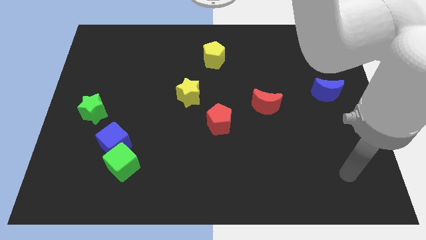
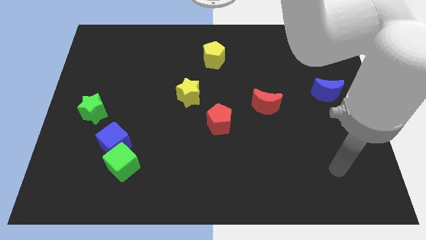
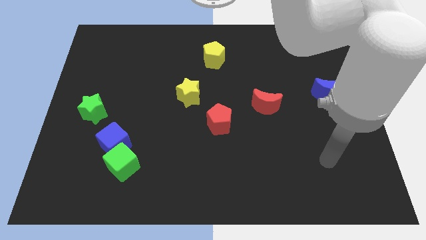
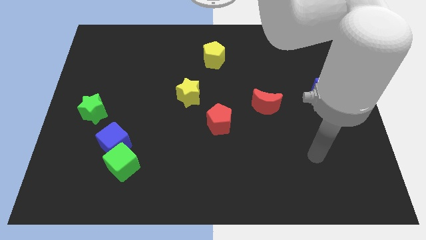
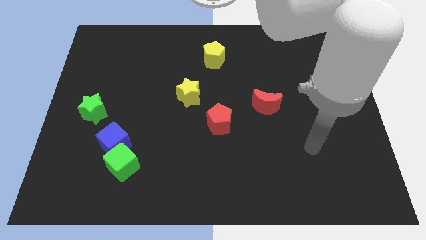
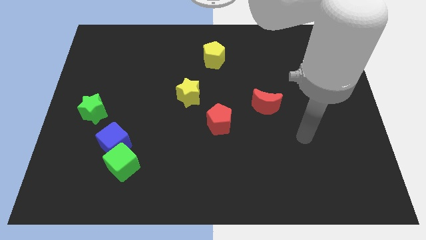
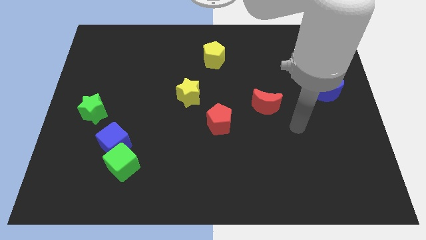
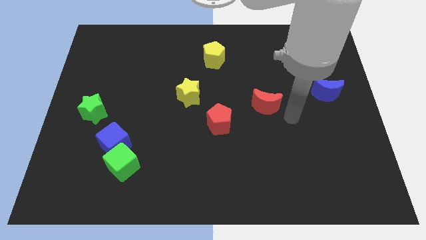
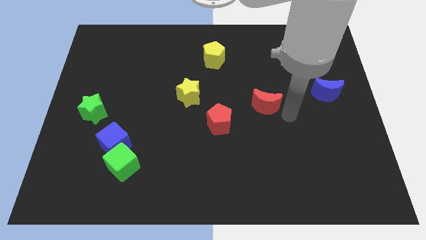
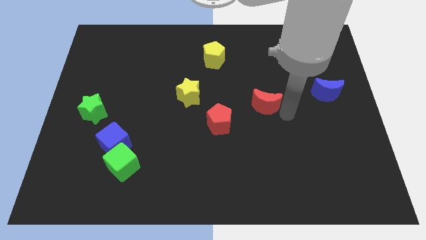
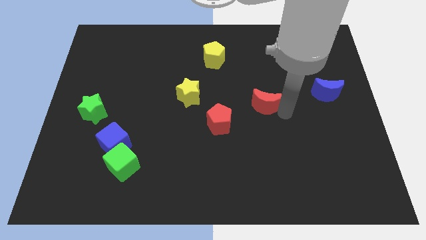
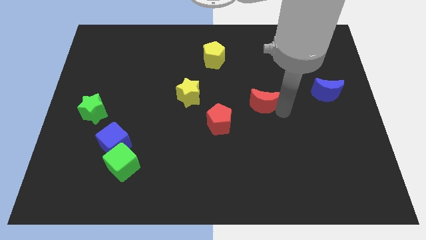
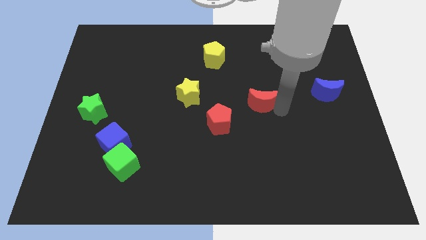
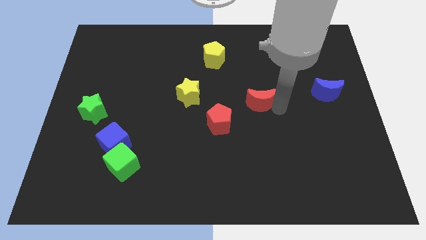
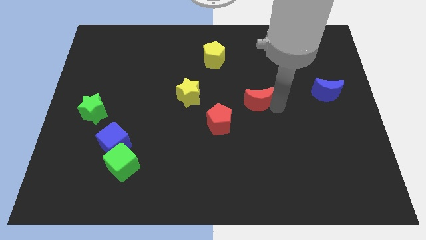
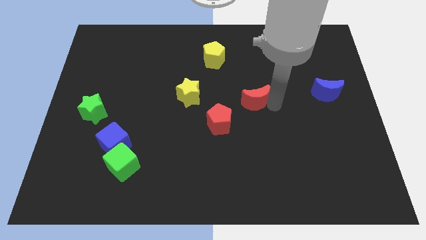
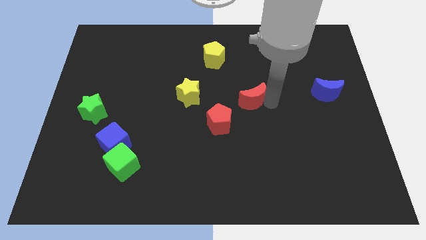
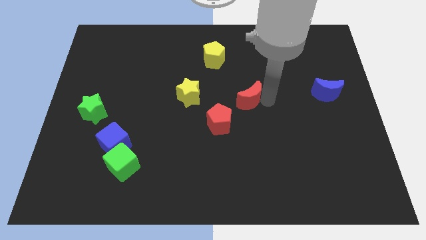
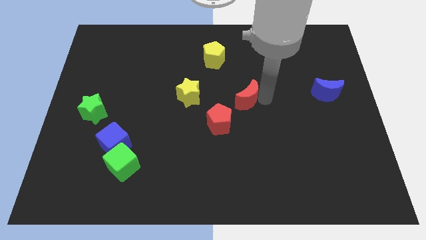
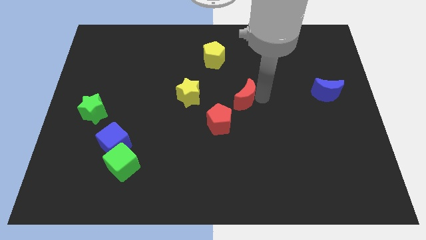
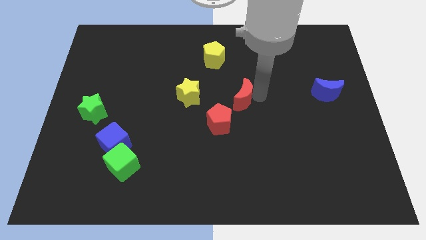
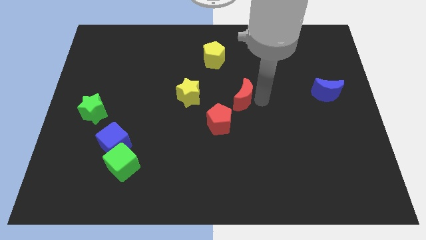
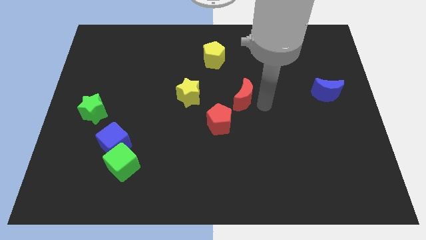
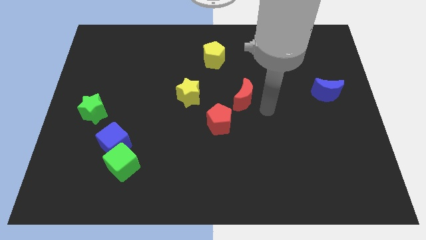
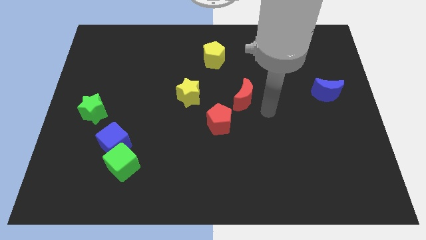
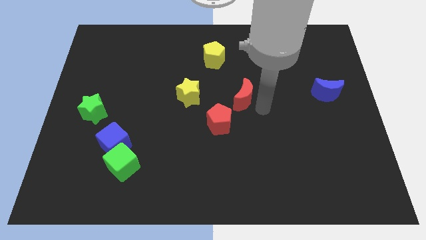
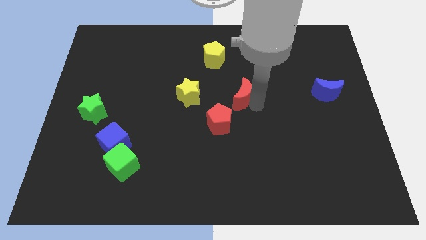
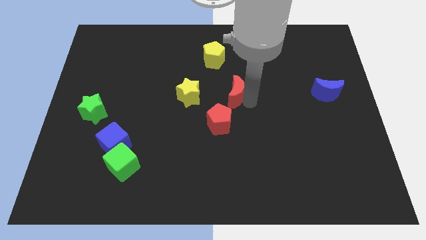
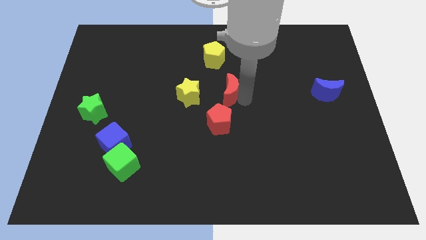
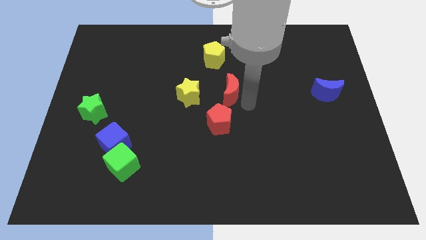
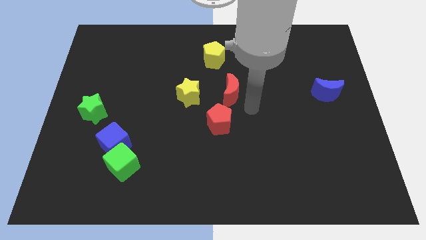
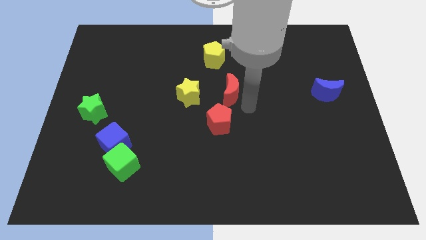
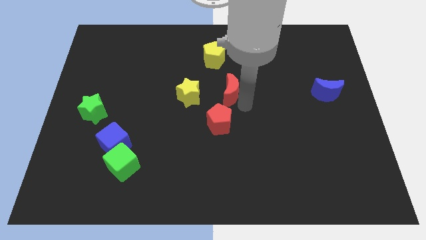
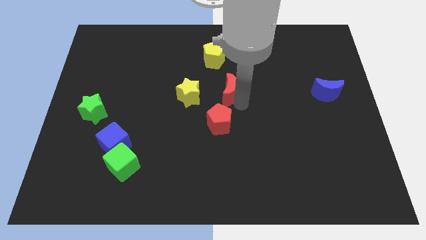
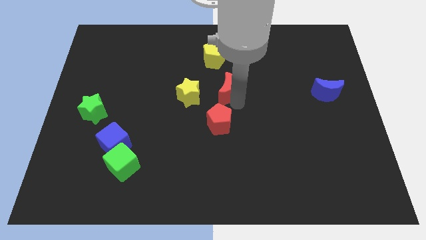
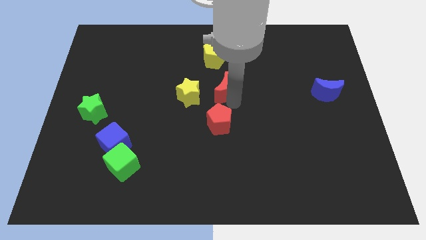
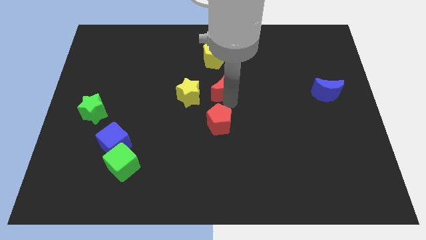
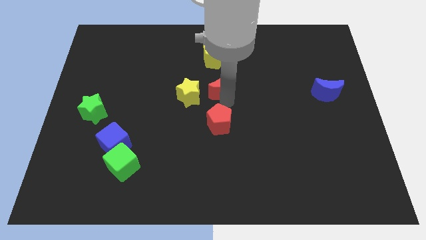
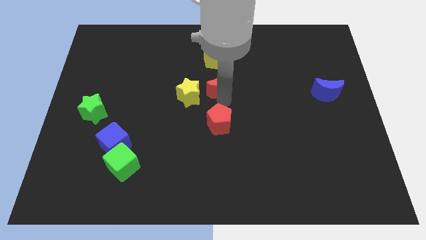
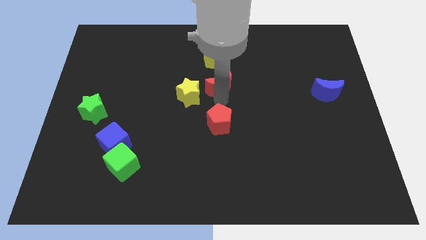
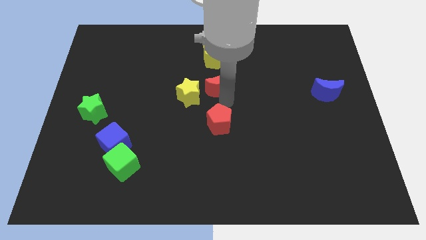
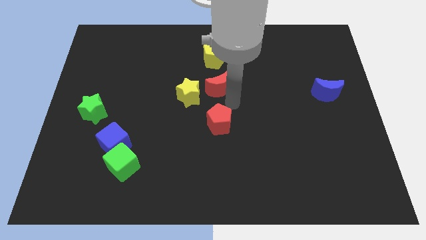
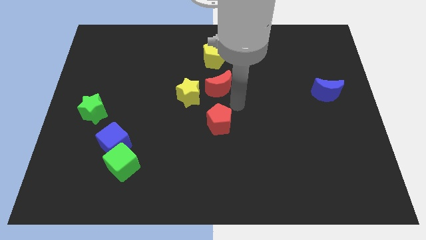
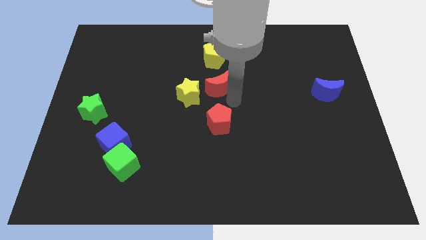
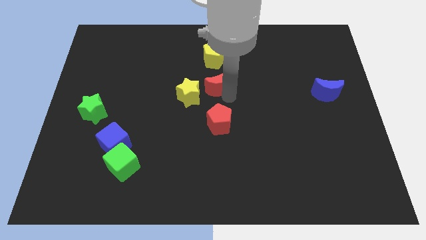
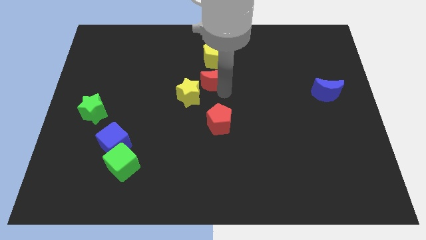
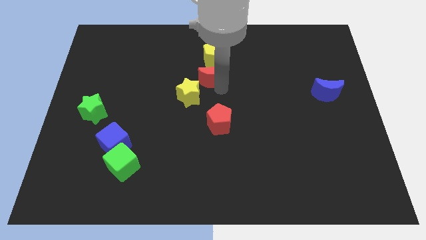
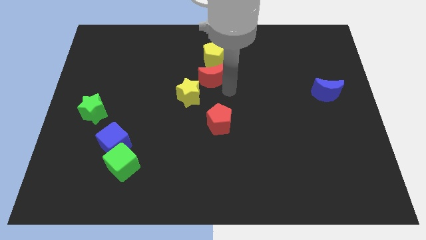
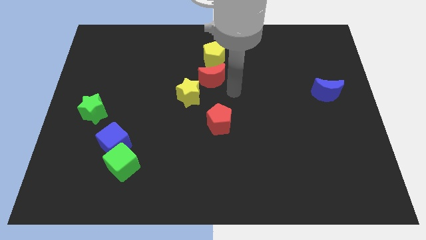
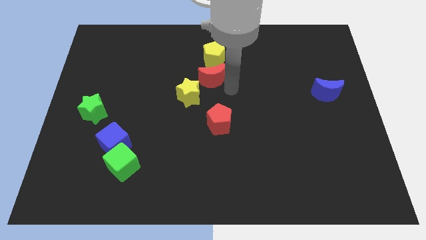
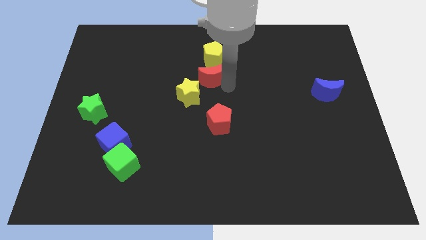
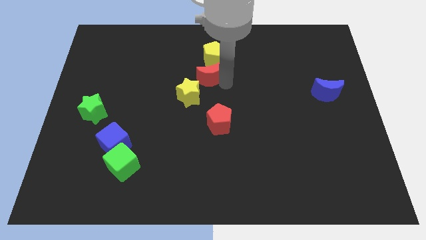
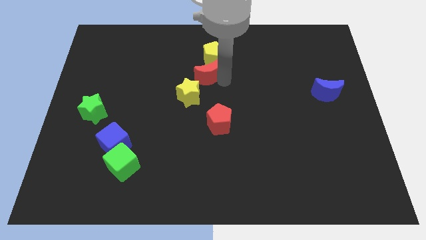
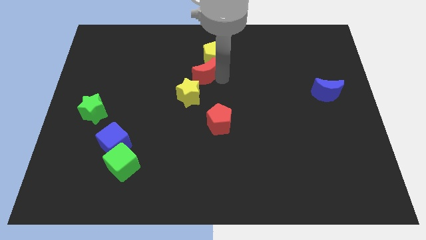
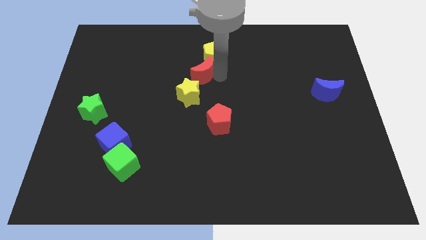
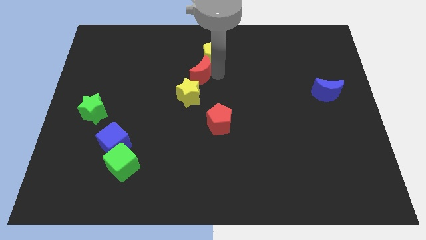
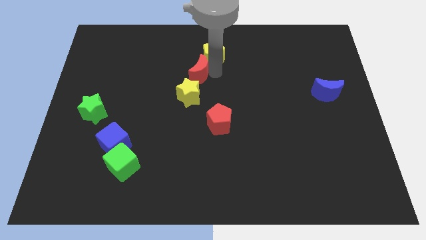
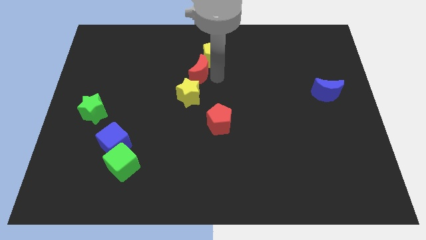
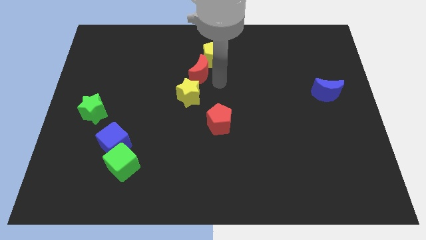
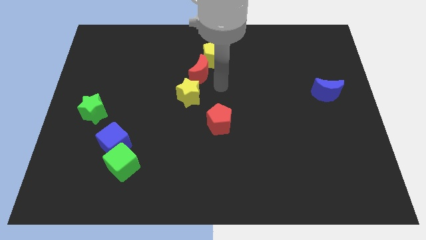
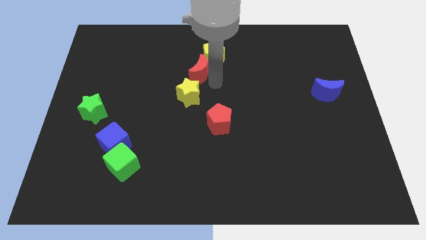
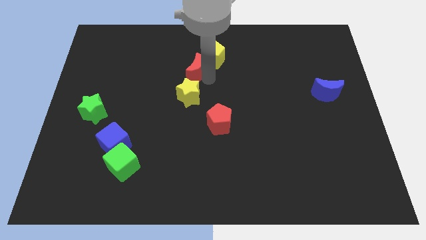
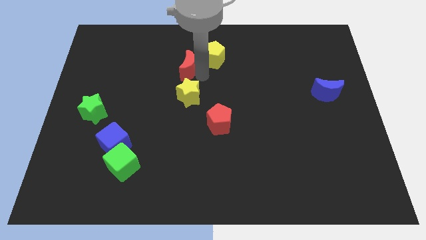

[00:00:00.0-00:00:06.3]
slide the red moon to the left side of the yellow pentagon

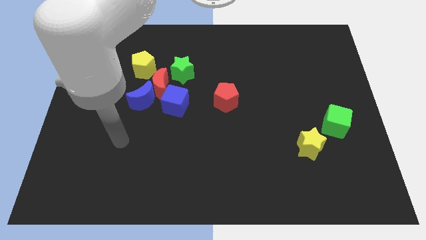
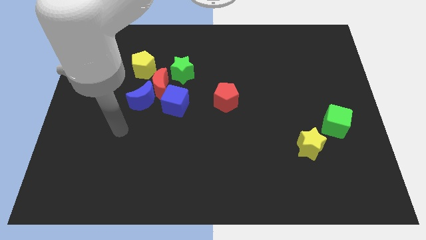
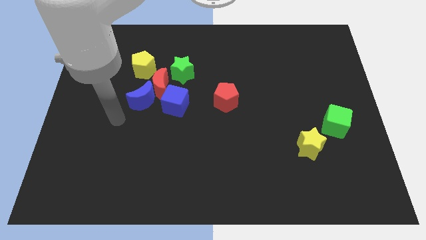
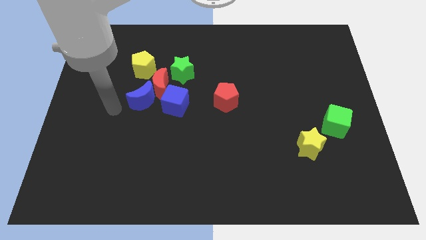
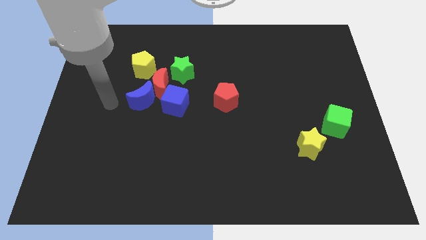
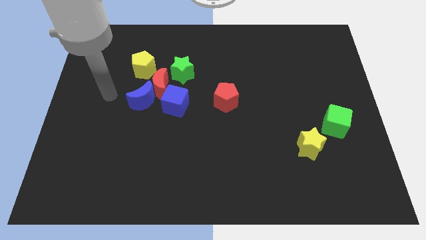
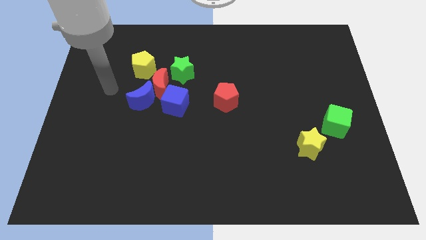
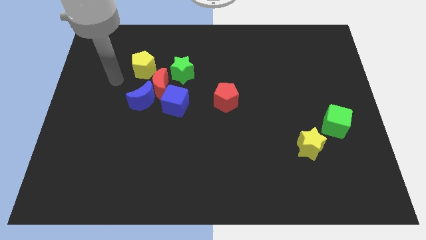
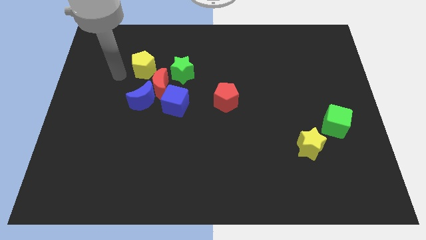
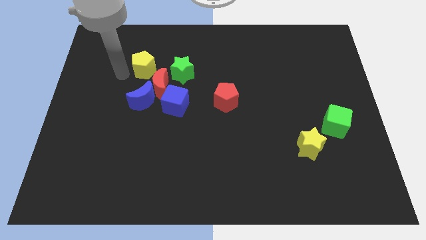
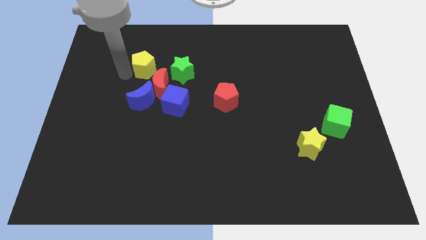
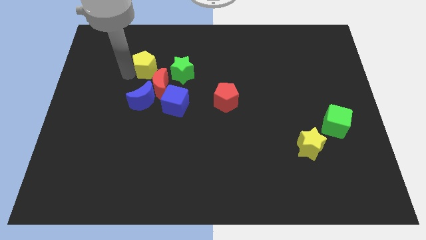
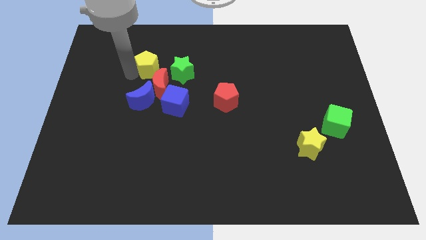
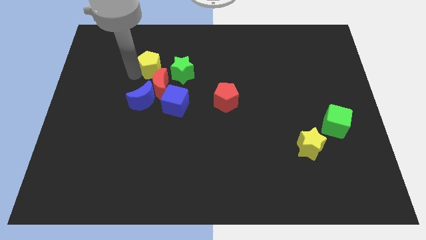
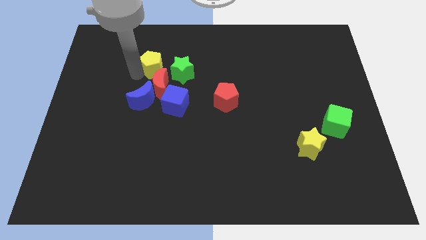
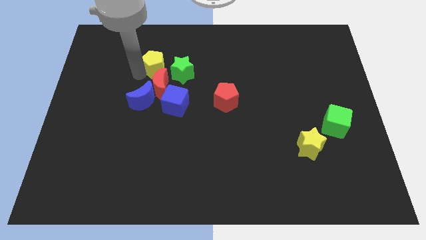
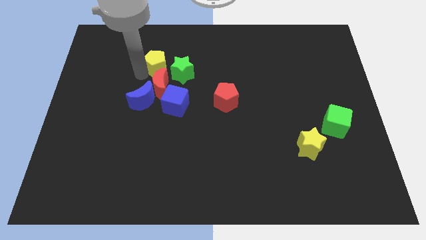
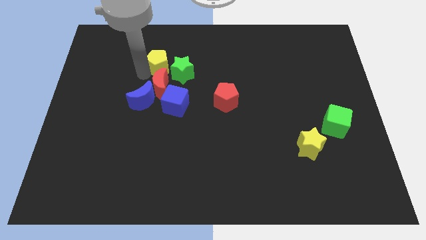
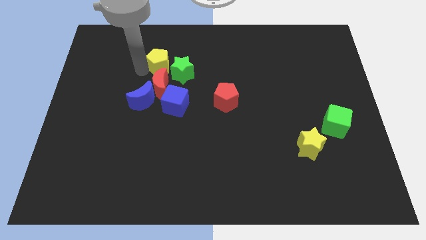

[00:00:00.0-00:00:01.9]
put the yellow pentagon to the top of the blue cube
